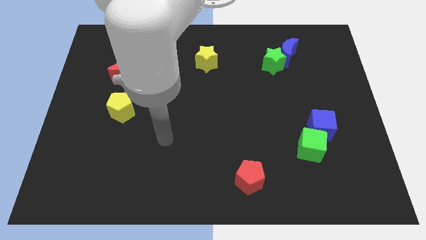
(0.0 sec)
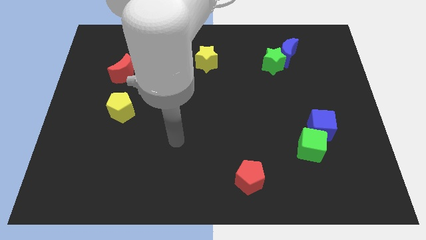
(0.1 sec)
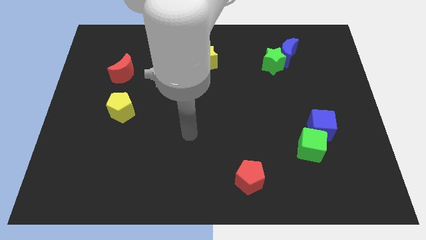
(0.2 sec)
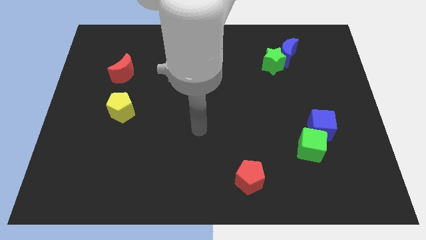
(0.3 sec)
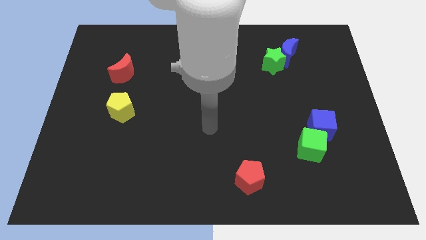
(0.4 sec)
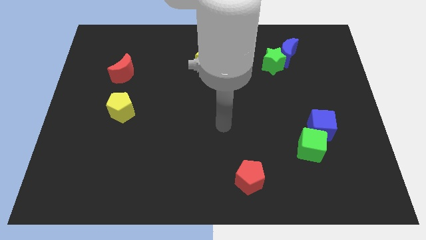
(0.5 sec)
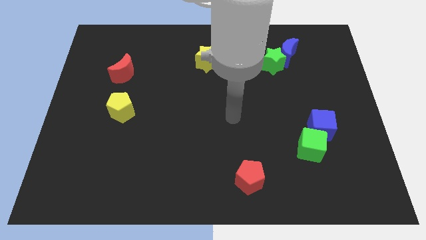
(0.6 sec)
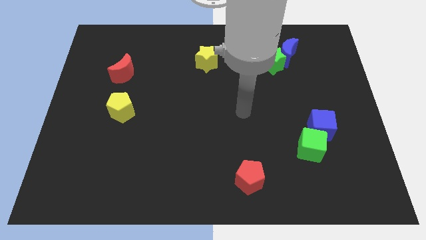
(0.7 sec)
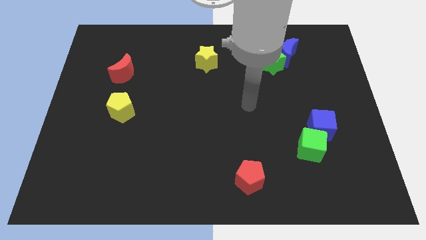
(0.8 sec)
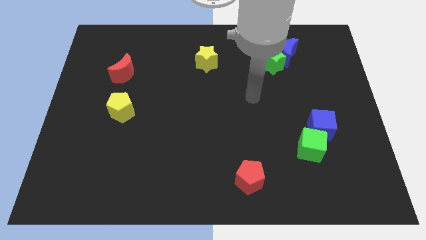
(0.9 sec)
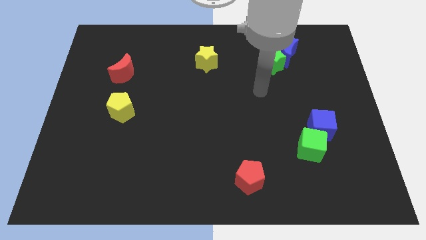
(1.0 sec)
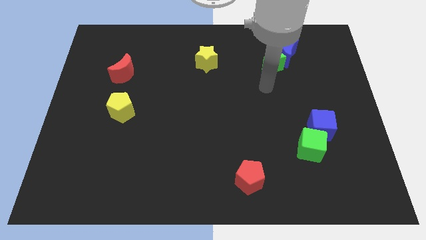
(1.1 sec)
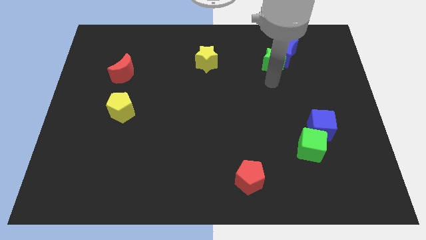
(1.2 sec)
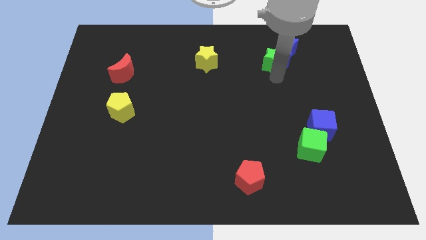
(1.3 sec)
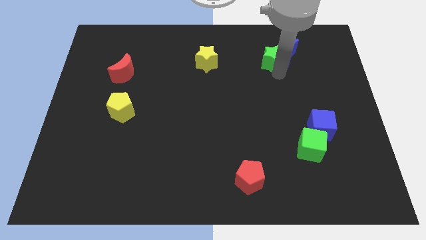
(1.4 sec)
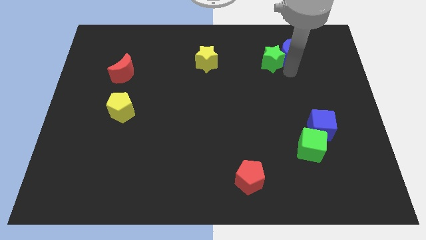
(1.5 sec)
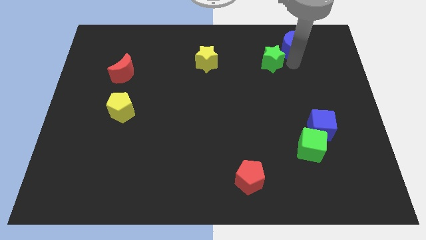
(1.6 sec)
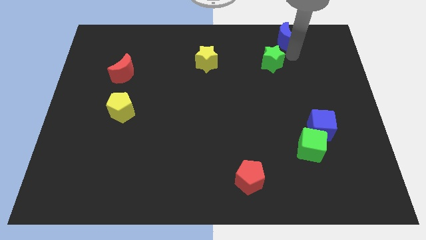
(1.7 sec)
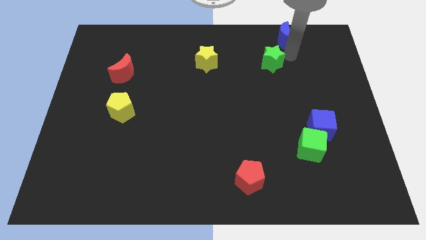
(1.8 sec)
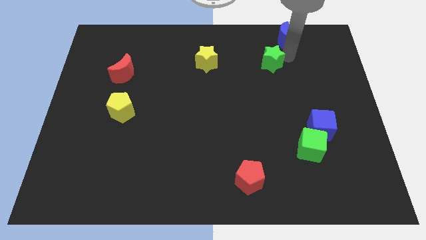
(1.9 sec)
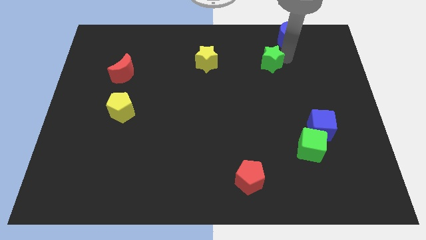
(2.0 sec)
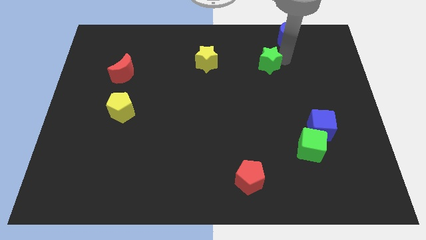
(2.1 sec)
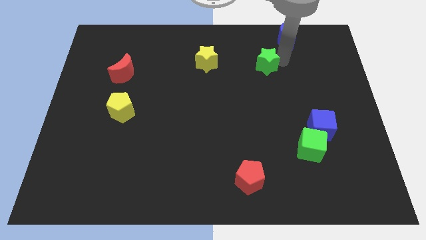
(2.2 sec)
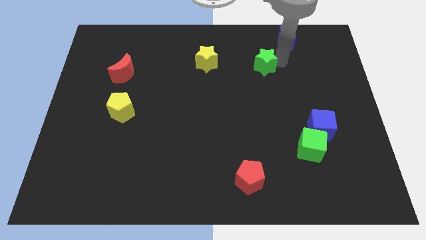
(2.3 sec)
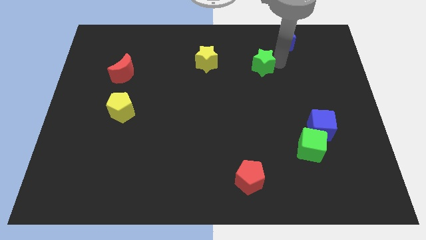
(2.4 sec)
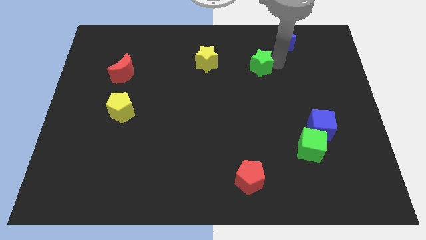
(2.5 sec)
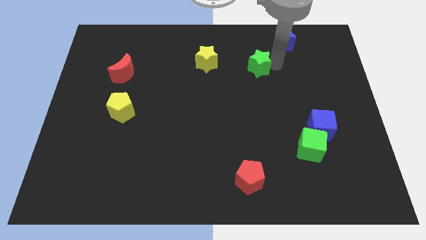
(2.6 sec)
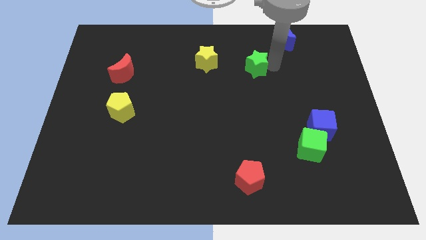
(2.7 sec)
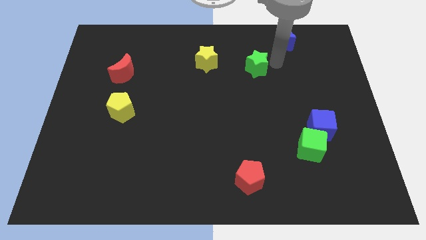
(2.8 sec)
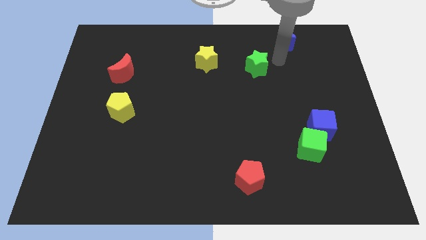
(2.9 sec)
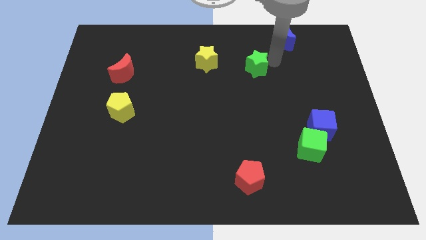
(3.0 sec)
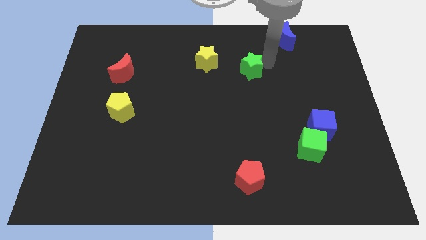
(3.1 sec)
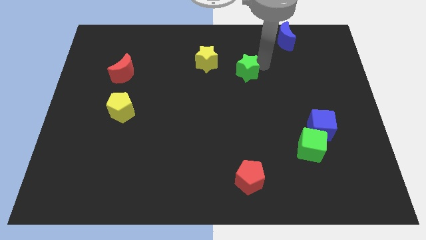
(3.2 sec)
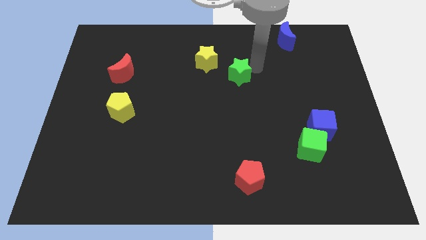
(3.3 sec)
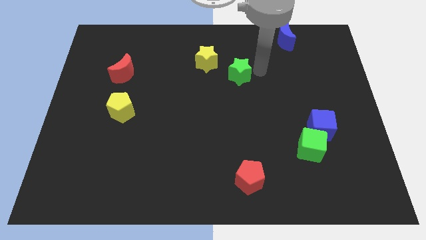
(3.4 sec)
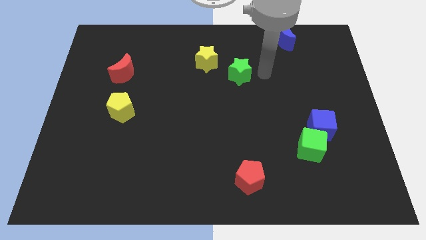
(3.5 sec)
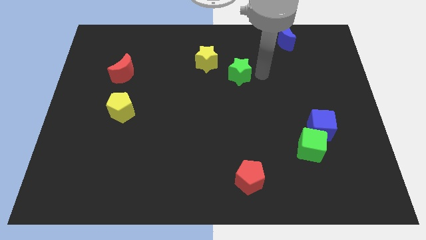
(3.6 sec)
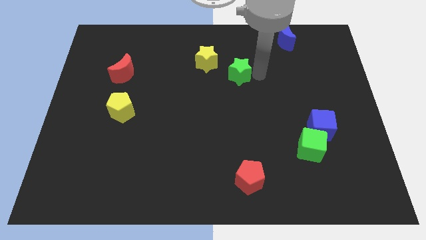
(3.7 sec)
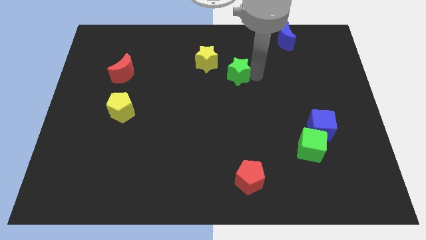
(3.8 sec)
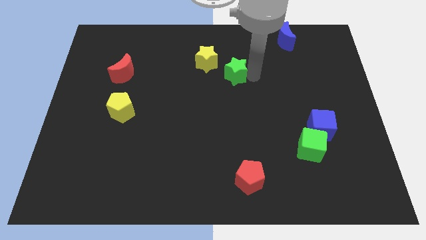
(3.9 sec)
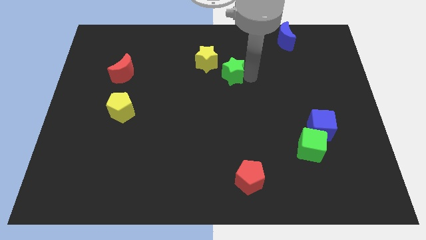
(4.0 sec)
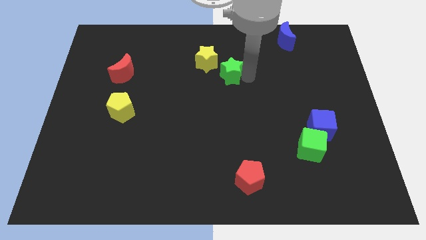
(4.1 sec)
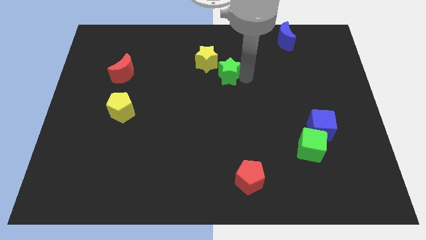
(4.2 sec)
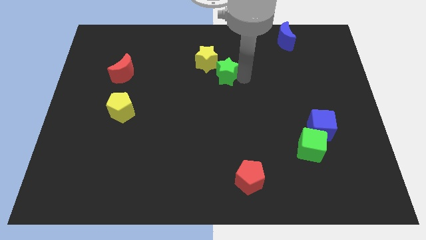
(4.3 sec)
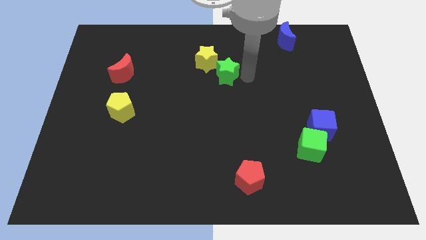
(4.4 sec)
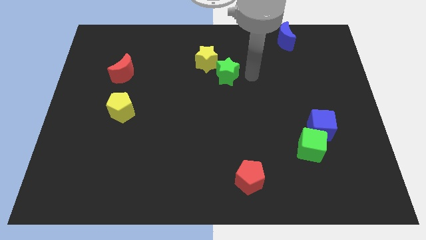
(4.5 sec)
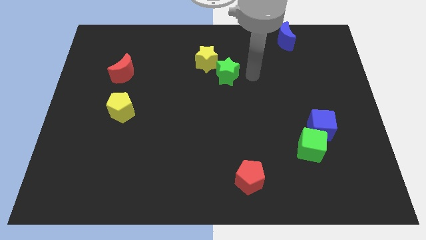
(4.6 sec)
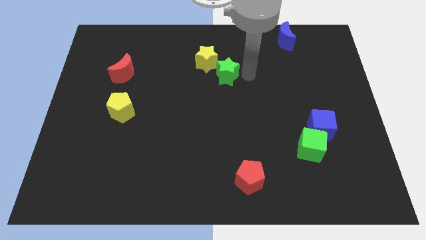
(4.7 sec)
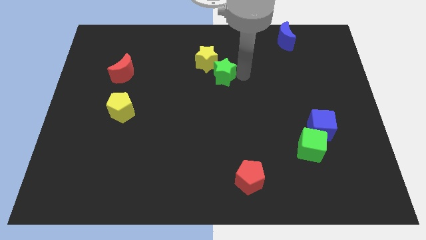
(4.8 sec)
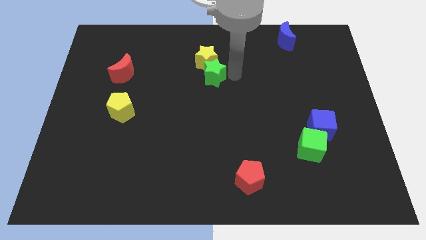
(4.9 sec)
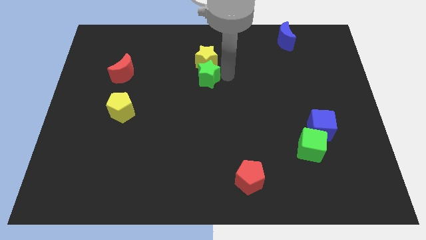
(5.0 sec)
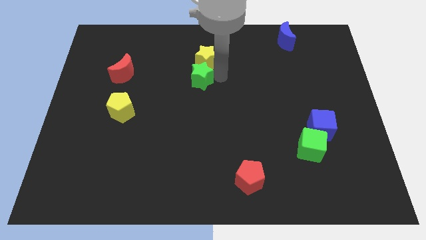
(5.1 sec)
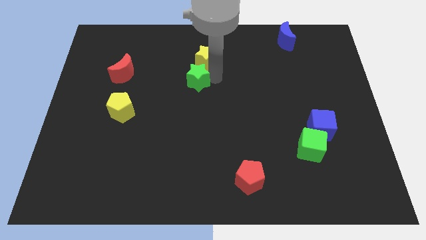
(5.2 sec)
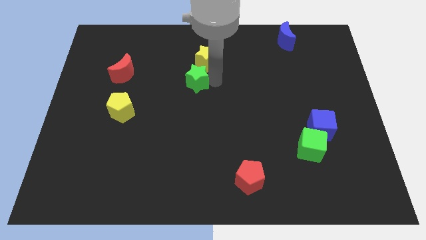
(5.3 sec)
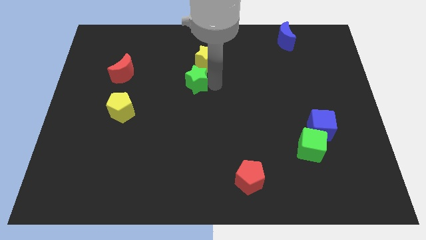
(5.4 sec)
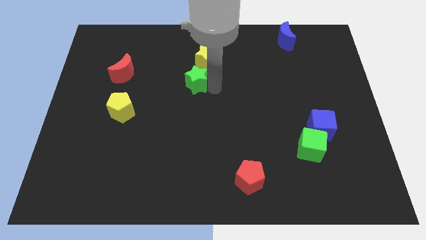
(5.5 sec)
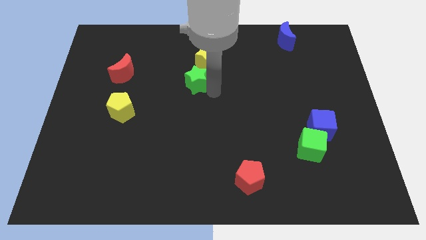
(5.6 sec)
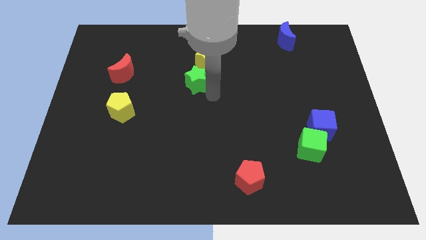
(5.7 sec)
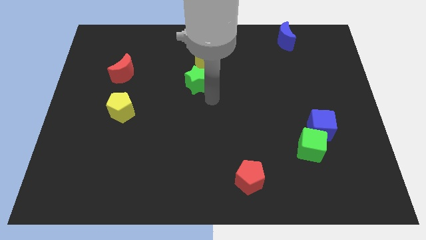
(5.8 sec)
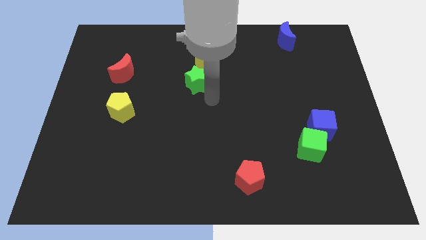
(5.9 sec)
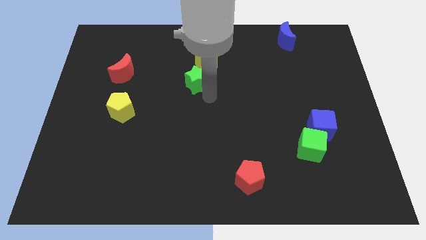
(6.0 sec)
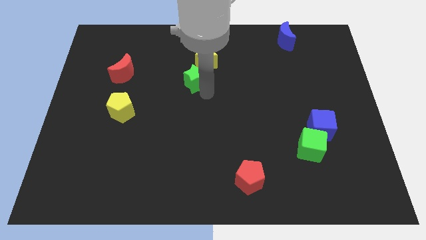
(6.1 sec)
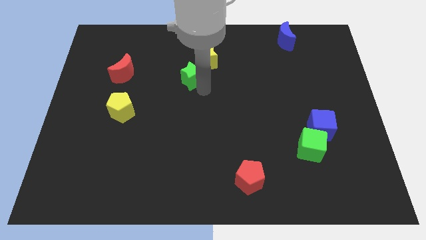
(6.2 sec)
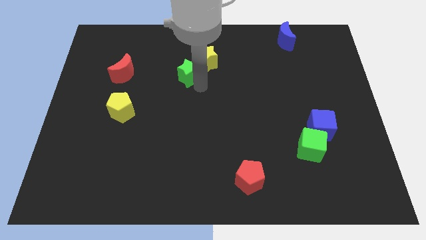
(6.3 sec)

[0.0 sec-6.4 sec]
move the green star to the left

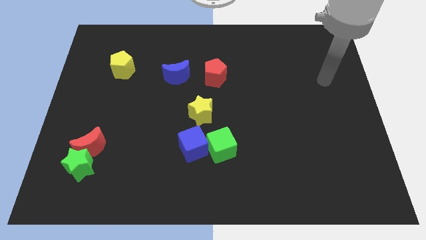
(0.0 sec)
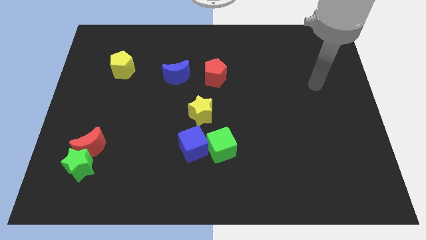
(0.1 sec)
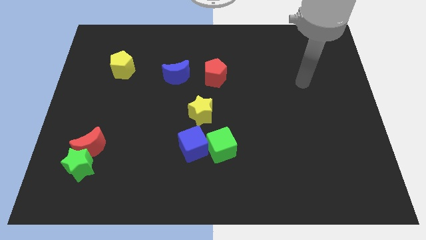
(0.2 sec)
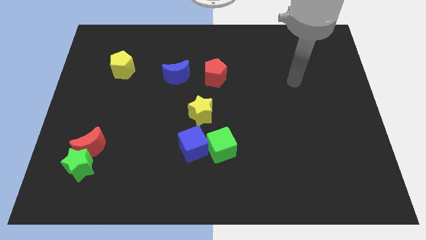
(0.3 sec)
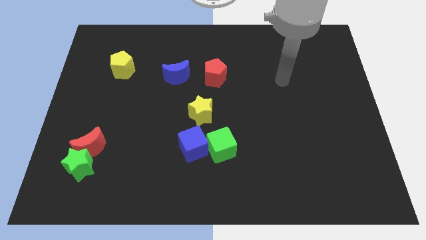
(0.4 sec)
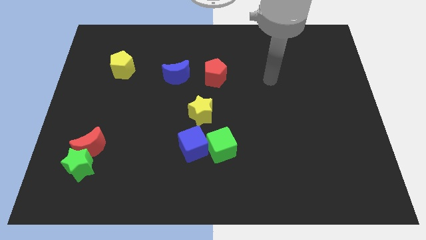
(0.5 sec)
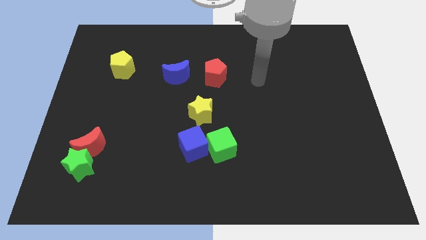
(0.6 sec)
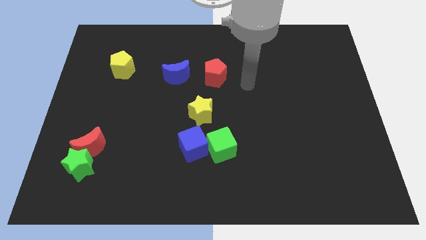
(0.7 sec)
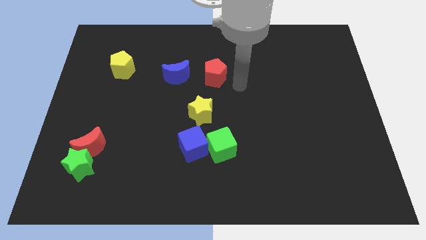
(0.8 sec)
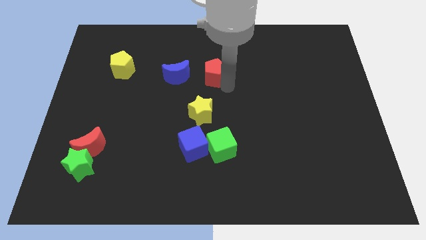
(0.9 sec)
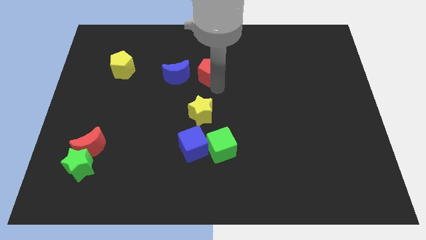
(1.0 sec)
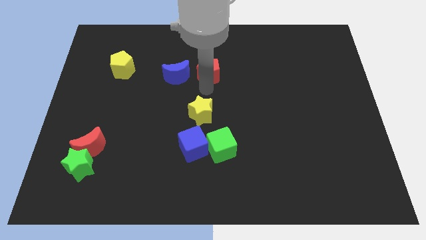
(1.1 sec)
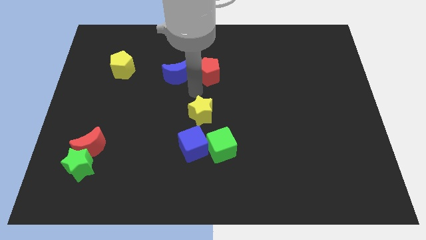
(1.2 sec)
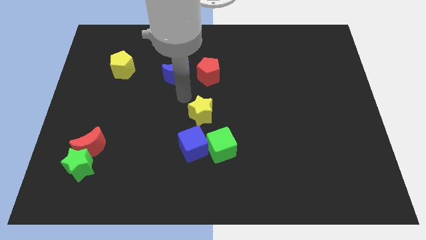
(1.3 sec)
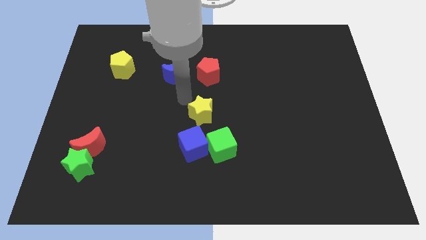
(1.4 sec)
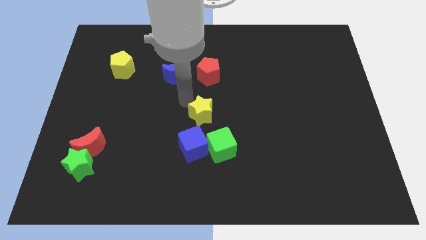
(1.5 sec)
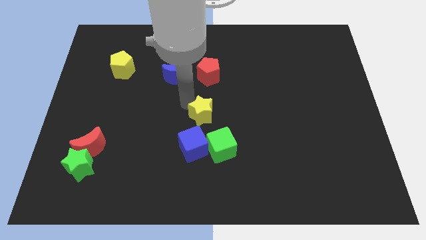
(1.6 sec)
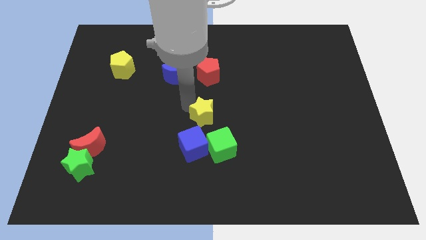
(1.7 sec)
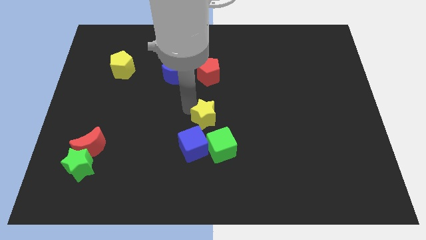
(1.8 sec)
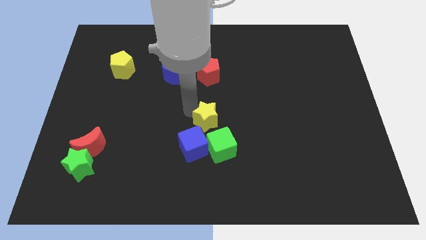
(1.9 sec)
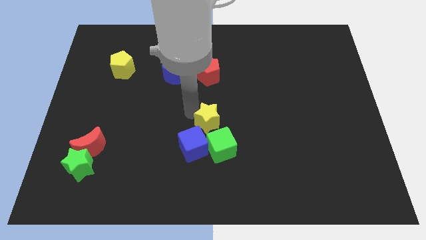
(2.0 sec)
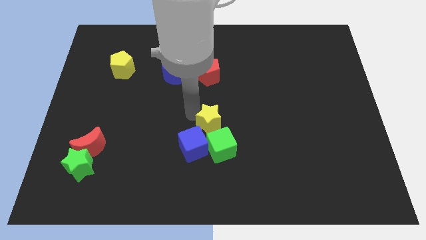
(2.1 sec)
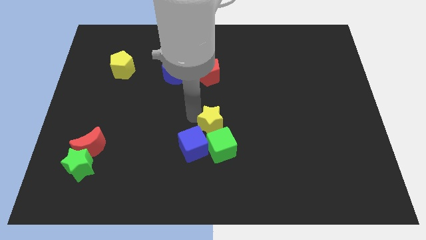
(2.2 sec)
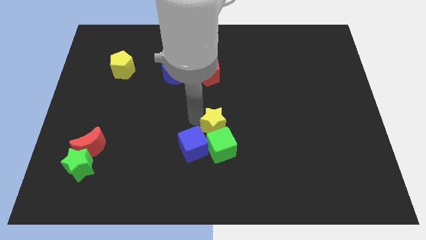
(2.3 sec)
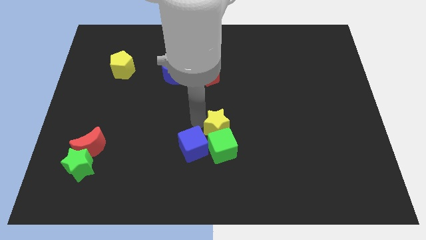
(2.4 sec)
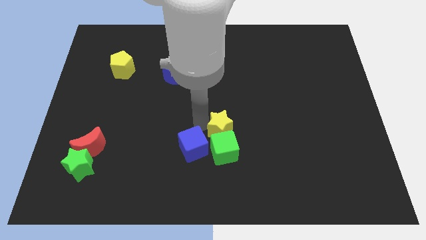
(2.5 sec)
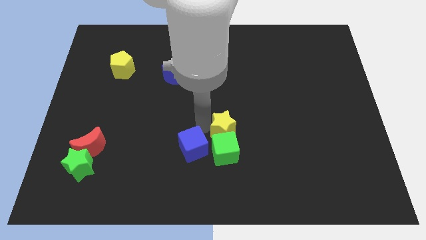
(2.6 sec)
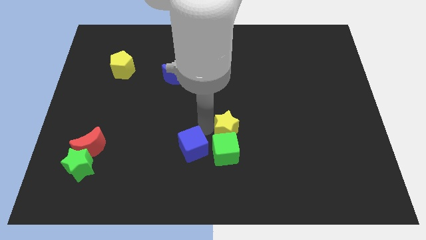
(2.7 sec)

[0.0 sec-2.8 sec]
push the yellow star a little diagonally down and right
